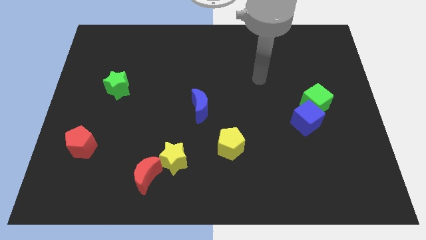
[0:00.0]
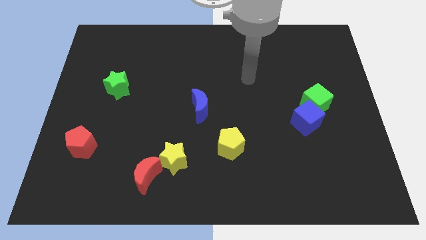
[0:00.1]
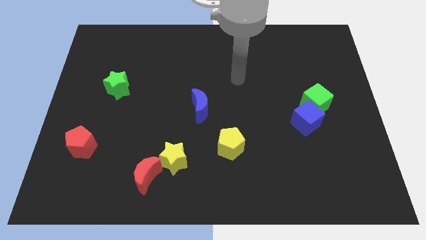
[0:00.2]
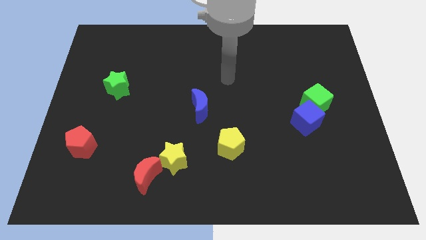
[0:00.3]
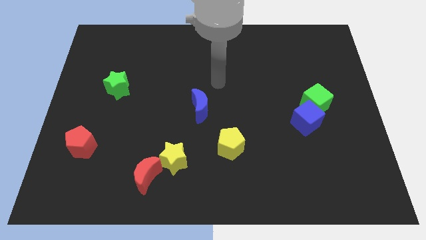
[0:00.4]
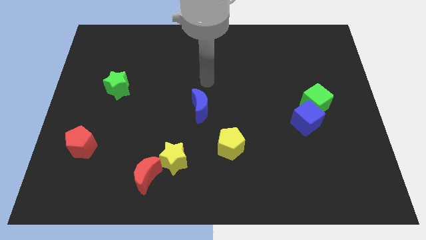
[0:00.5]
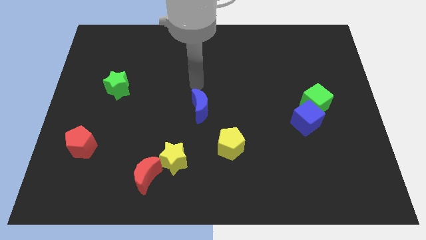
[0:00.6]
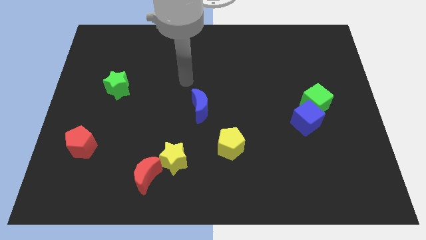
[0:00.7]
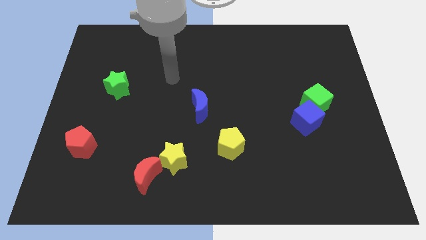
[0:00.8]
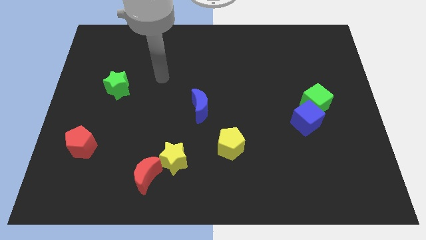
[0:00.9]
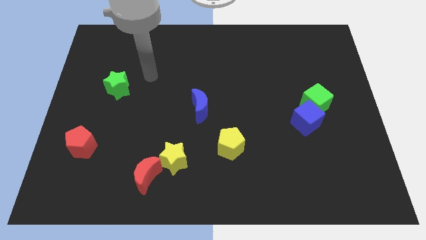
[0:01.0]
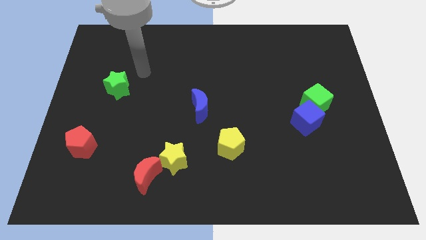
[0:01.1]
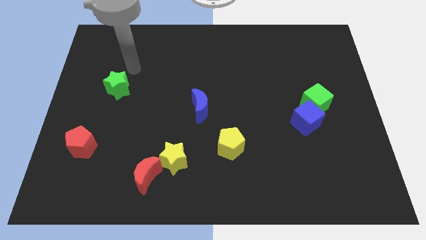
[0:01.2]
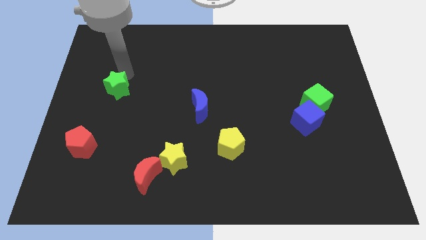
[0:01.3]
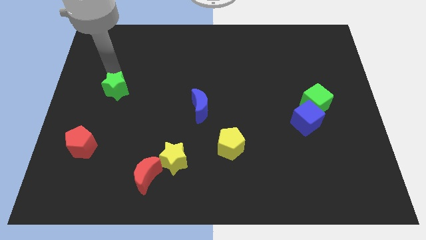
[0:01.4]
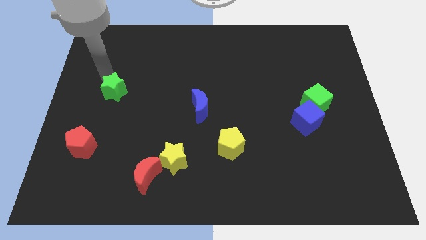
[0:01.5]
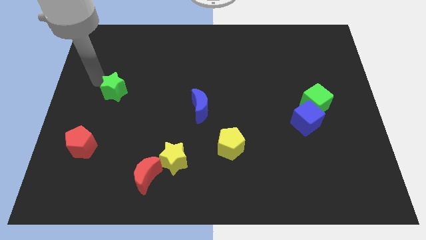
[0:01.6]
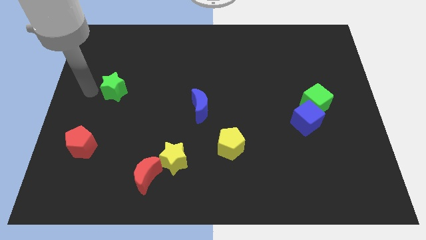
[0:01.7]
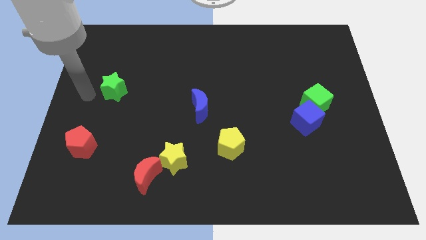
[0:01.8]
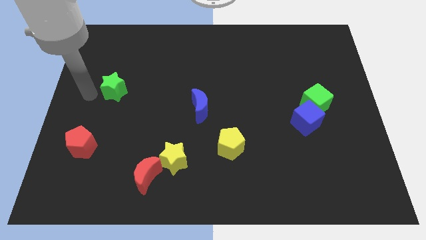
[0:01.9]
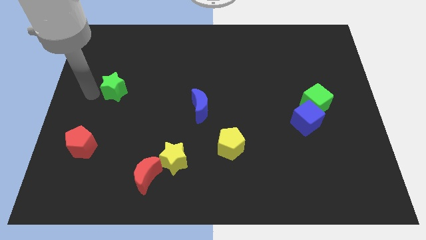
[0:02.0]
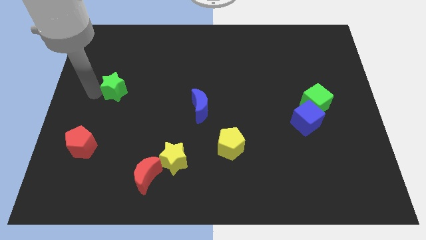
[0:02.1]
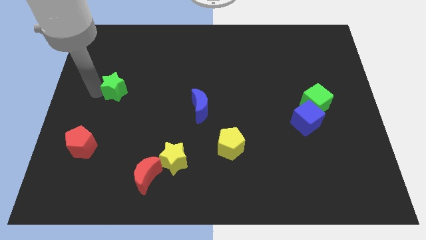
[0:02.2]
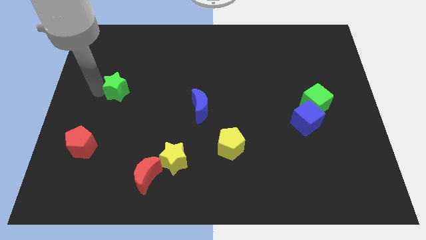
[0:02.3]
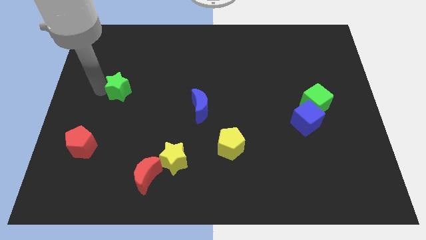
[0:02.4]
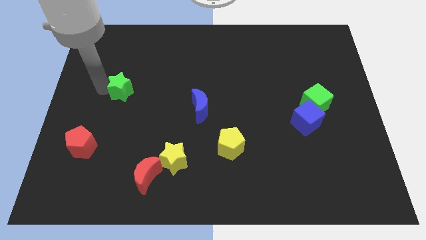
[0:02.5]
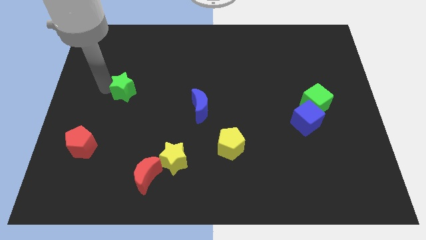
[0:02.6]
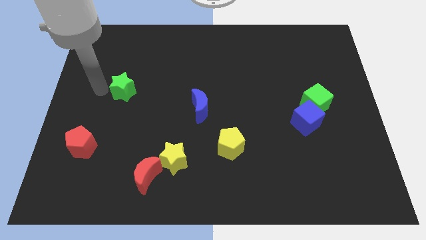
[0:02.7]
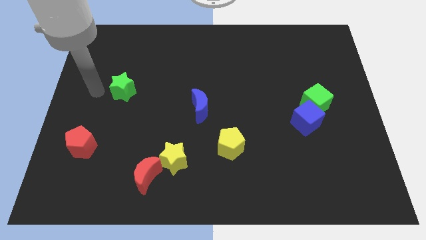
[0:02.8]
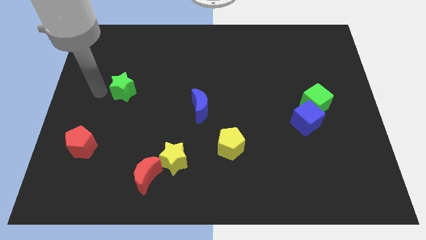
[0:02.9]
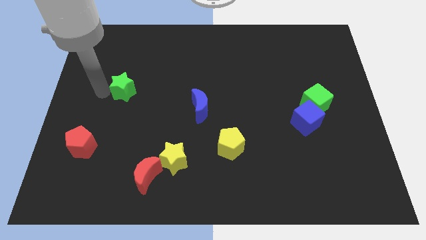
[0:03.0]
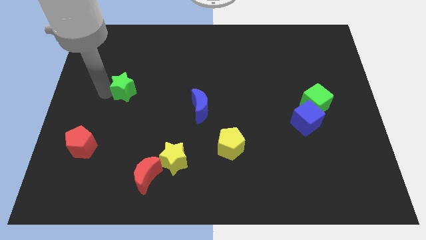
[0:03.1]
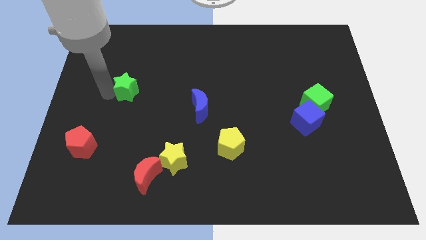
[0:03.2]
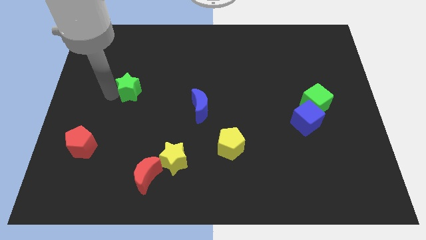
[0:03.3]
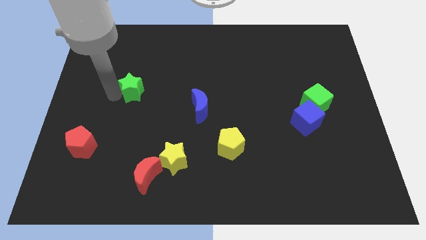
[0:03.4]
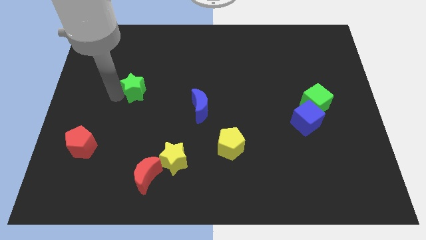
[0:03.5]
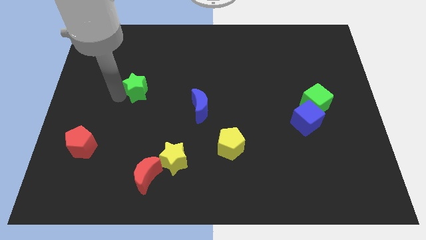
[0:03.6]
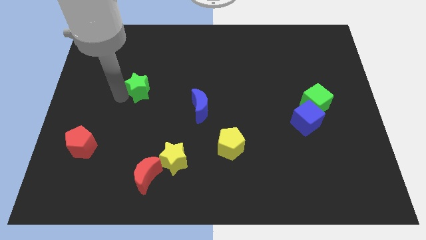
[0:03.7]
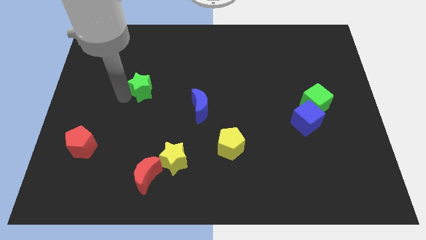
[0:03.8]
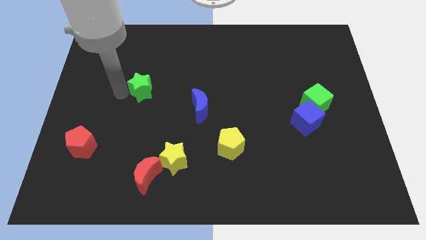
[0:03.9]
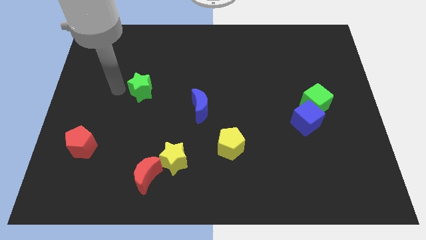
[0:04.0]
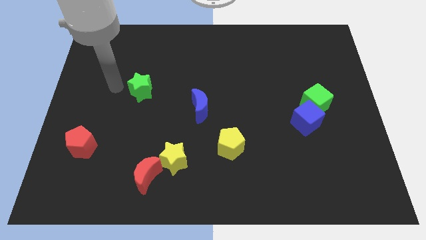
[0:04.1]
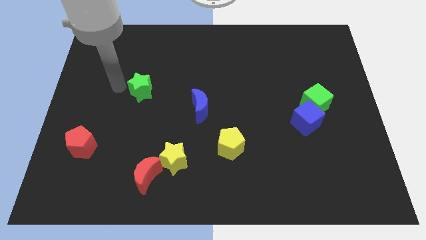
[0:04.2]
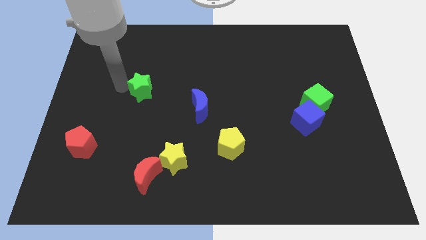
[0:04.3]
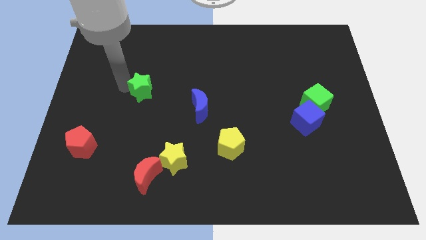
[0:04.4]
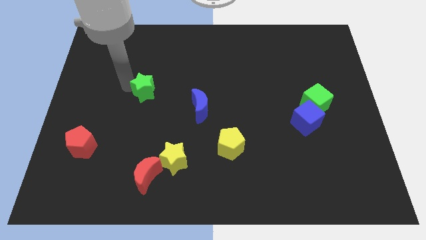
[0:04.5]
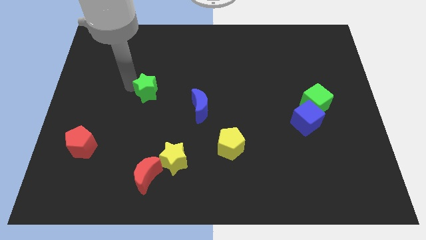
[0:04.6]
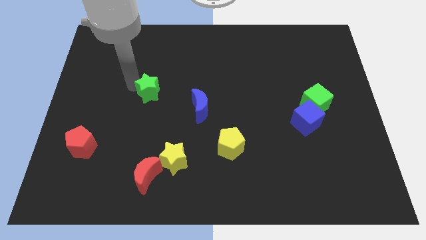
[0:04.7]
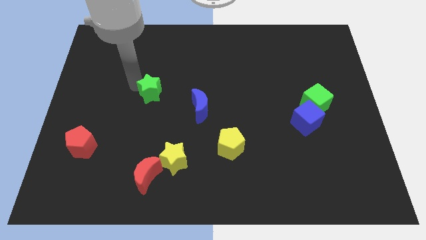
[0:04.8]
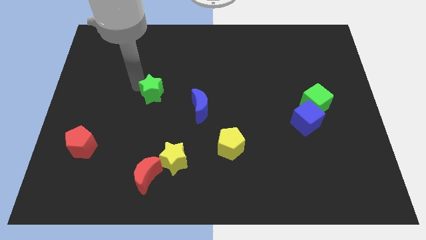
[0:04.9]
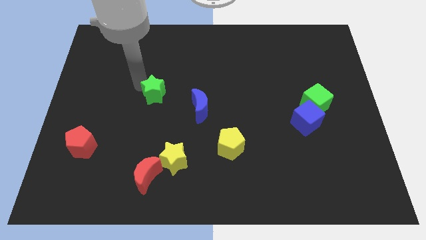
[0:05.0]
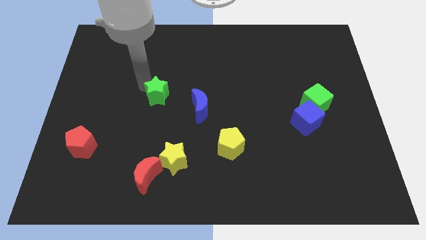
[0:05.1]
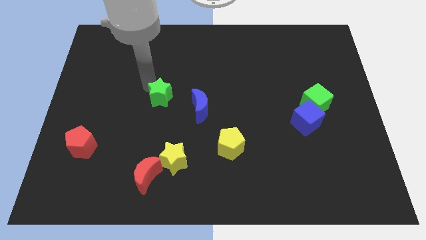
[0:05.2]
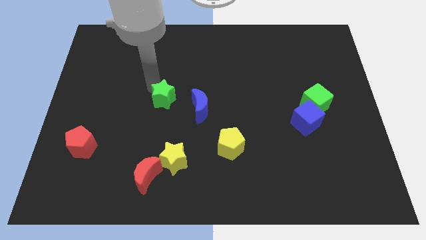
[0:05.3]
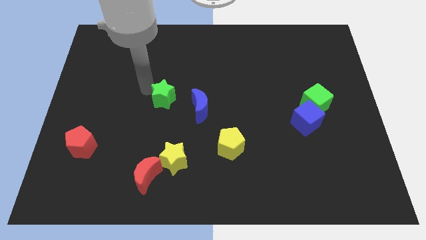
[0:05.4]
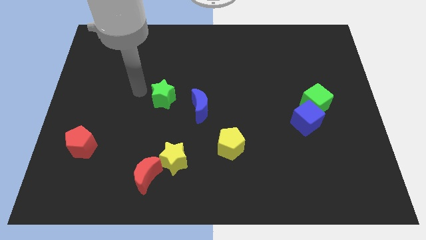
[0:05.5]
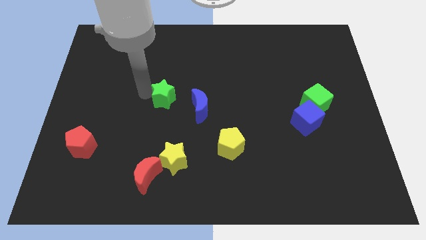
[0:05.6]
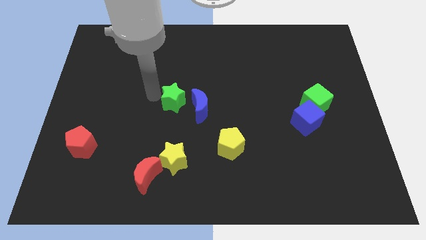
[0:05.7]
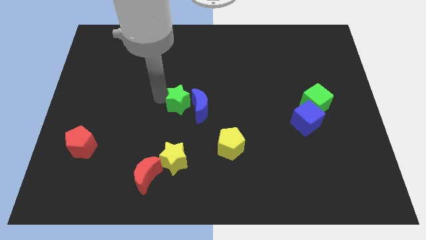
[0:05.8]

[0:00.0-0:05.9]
put the green star next to the blue moon
